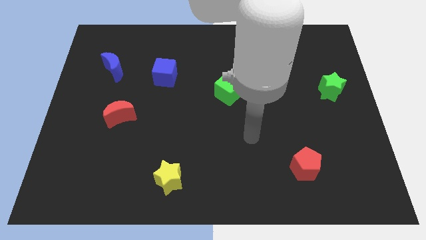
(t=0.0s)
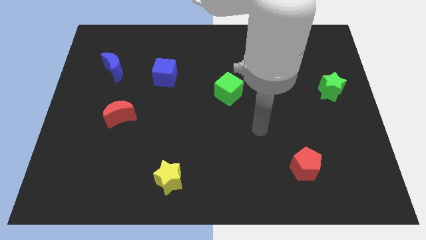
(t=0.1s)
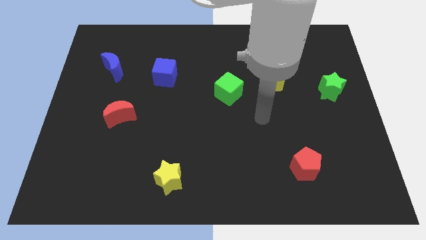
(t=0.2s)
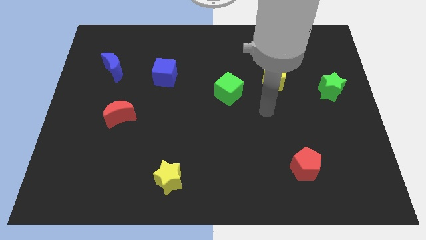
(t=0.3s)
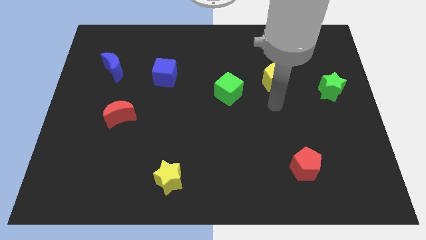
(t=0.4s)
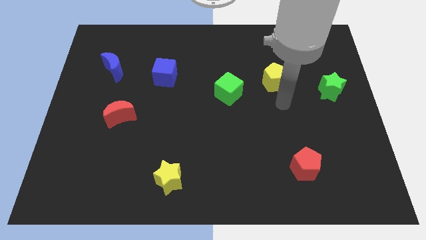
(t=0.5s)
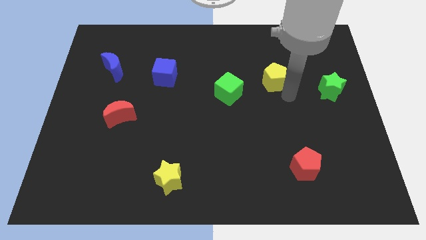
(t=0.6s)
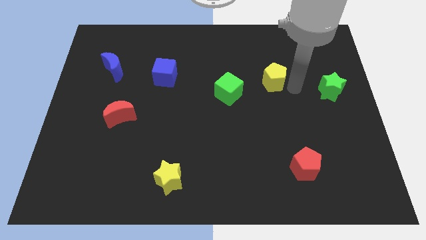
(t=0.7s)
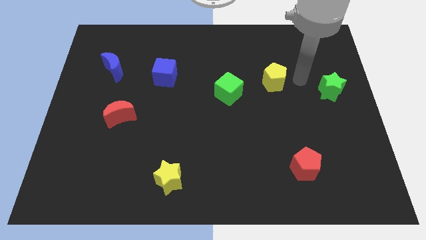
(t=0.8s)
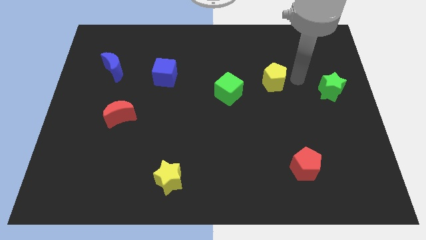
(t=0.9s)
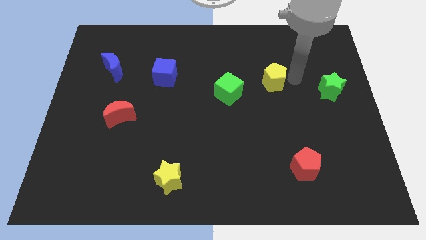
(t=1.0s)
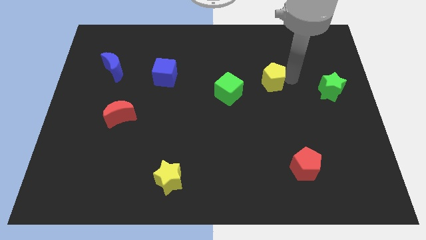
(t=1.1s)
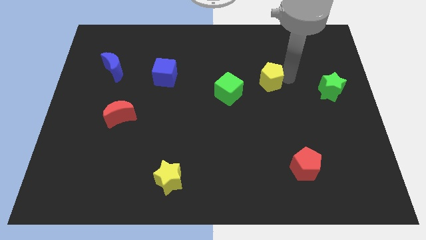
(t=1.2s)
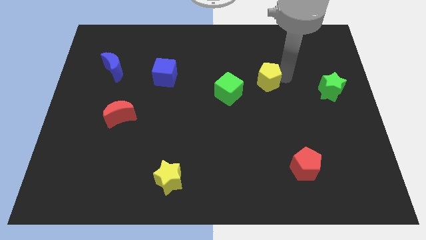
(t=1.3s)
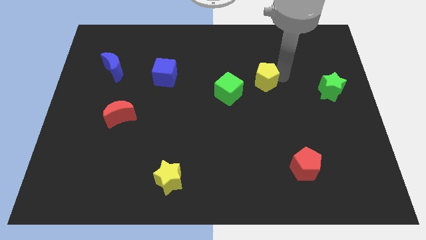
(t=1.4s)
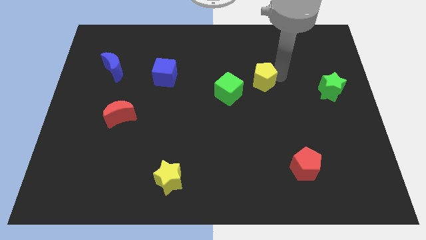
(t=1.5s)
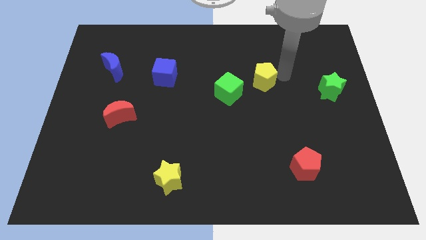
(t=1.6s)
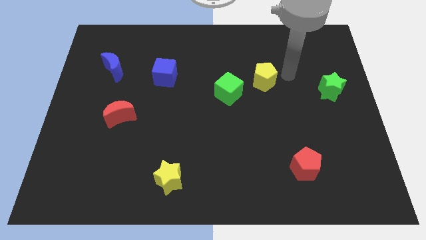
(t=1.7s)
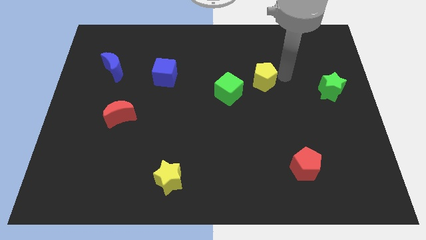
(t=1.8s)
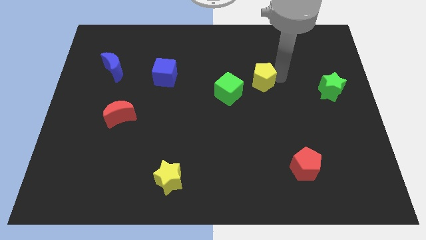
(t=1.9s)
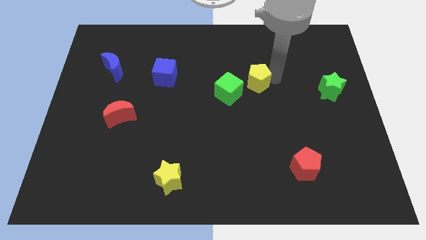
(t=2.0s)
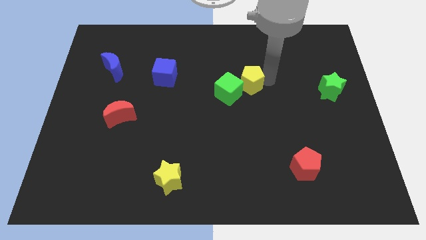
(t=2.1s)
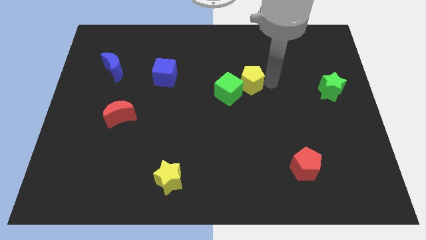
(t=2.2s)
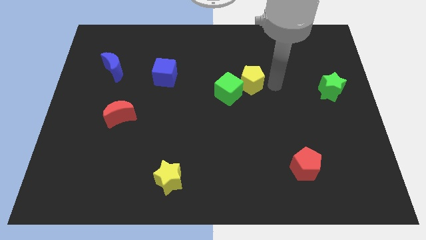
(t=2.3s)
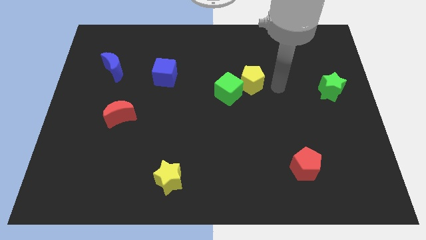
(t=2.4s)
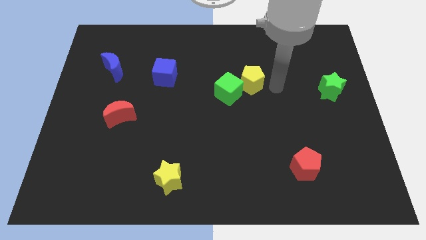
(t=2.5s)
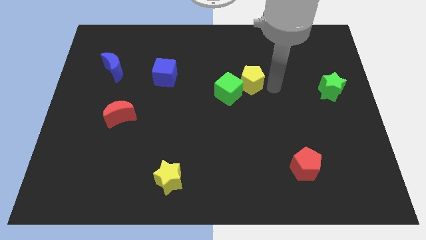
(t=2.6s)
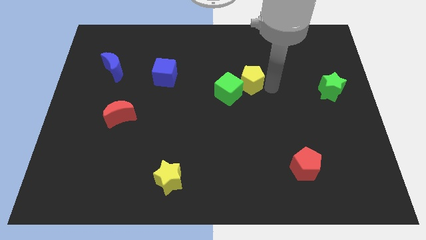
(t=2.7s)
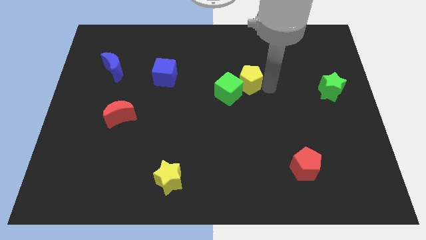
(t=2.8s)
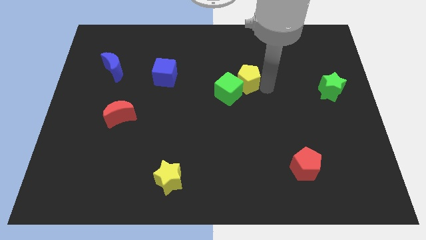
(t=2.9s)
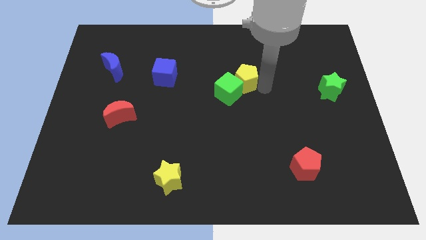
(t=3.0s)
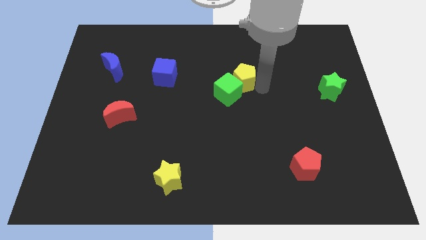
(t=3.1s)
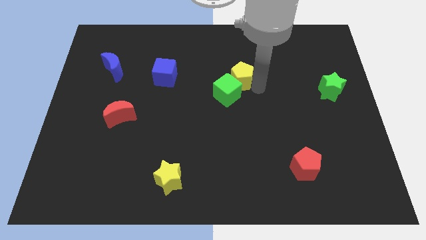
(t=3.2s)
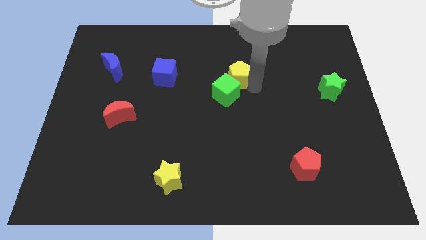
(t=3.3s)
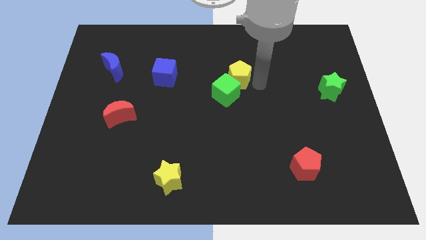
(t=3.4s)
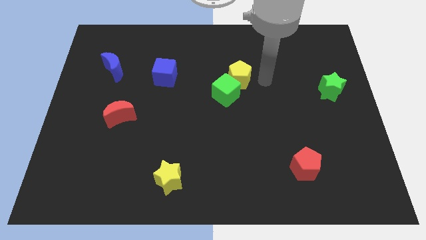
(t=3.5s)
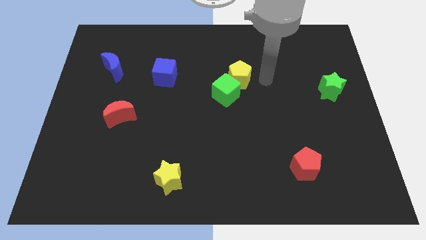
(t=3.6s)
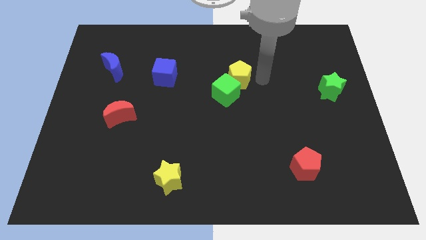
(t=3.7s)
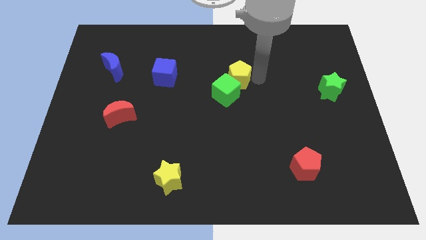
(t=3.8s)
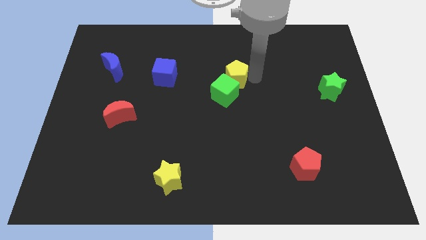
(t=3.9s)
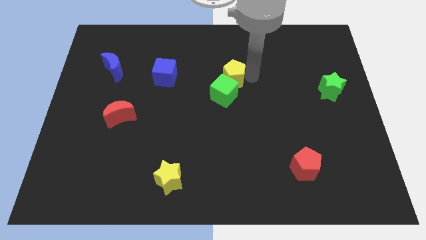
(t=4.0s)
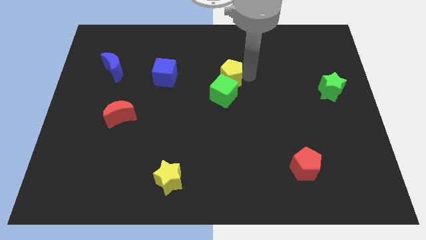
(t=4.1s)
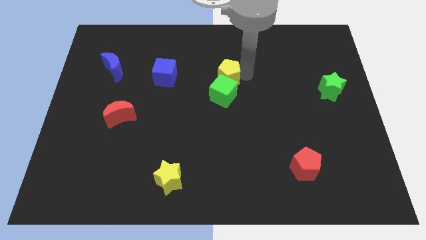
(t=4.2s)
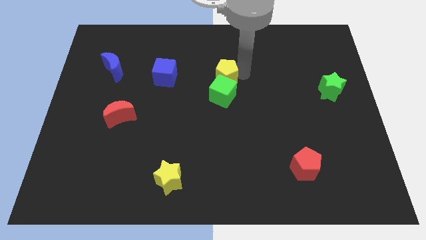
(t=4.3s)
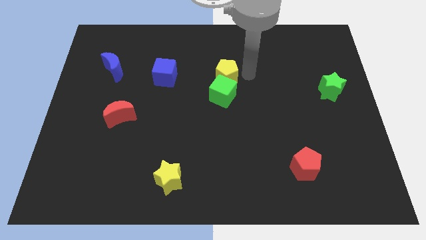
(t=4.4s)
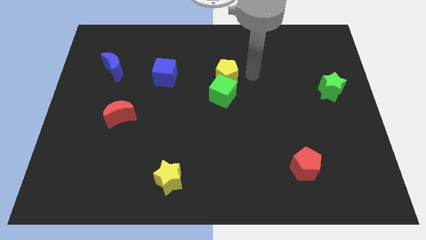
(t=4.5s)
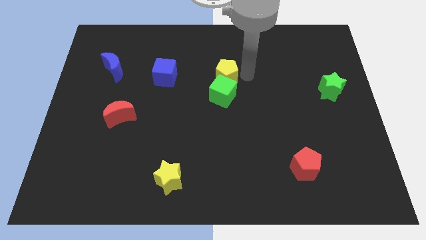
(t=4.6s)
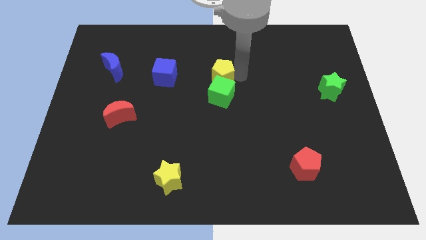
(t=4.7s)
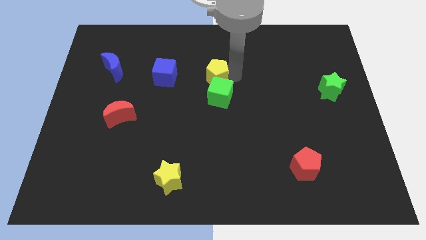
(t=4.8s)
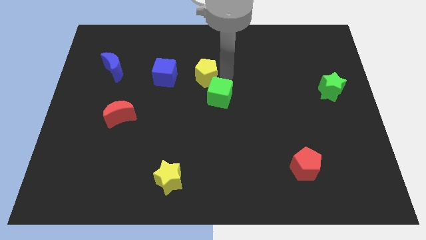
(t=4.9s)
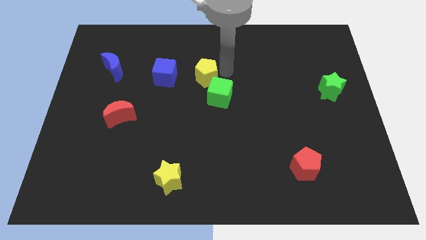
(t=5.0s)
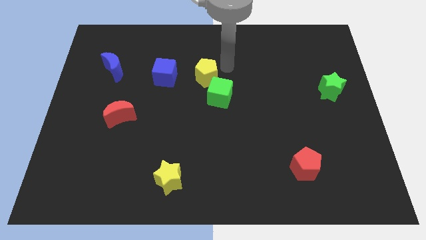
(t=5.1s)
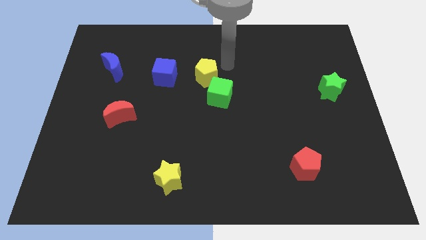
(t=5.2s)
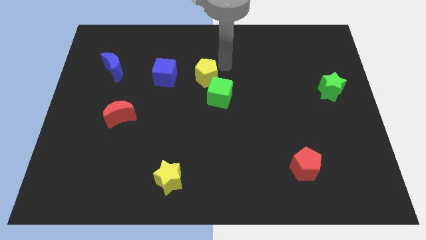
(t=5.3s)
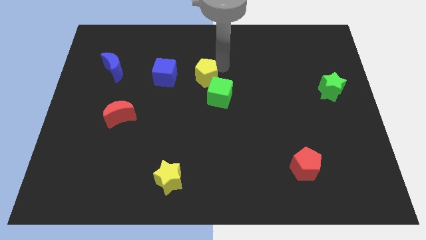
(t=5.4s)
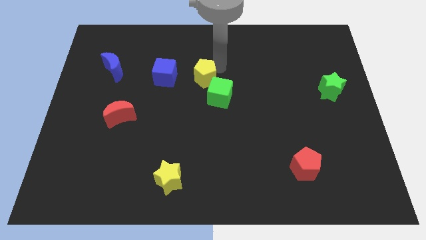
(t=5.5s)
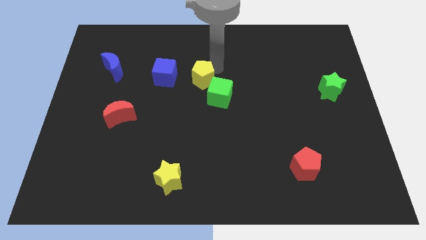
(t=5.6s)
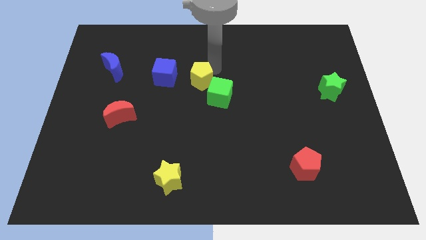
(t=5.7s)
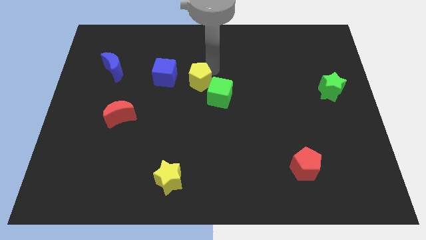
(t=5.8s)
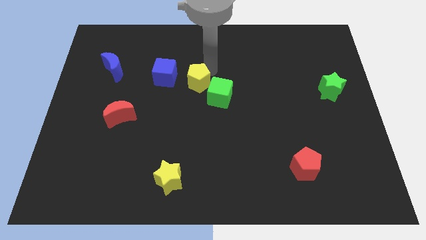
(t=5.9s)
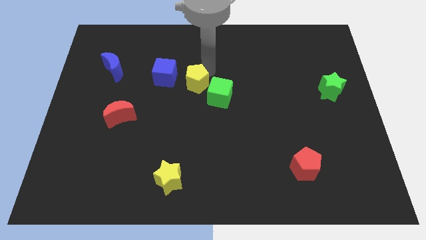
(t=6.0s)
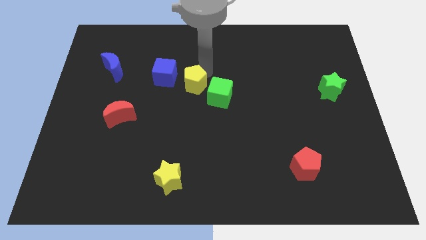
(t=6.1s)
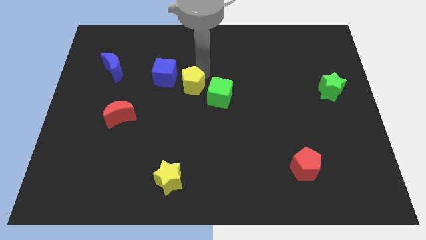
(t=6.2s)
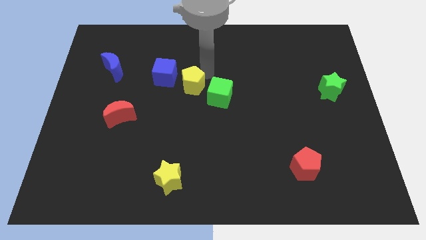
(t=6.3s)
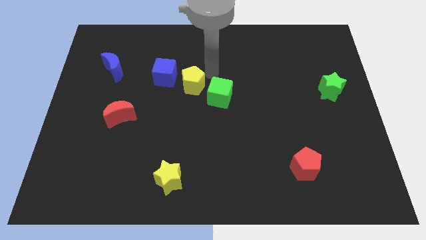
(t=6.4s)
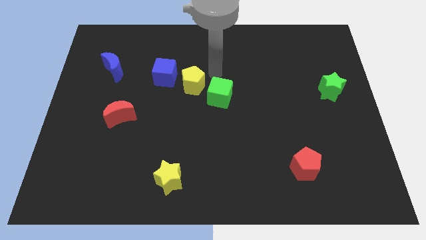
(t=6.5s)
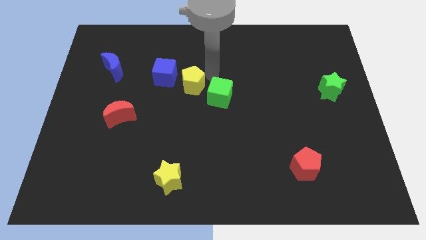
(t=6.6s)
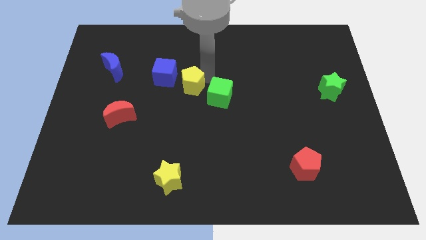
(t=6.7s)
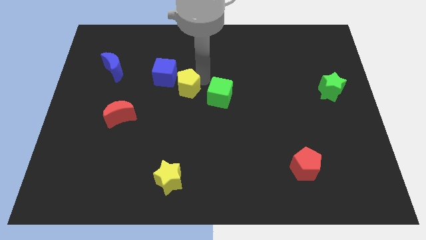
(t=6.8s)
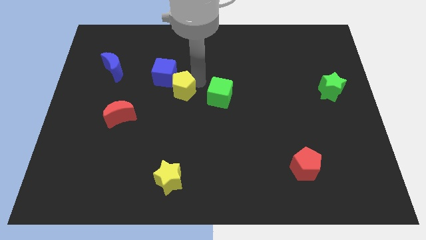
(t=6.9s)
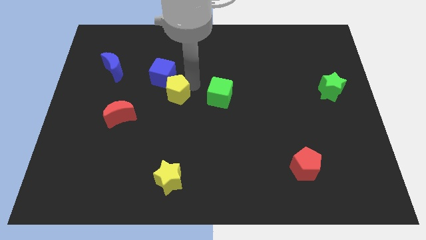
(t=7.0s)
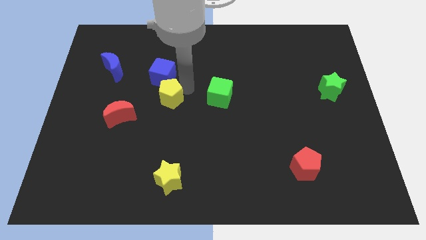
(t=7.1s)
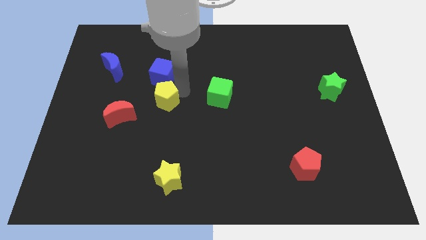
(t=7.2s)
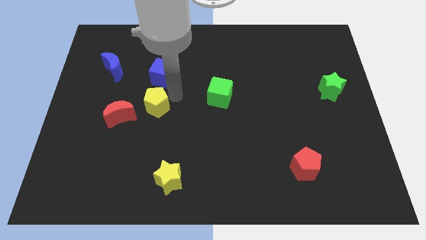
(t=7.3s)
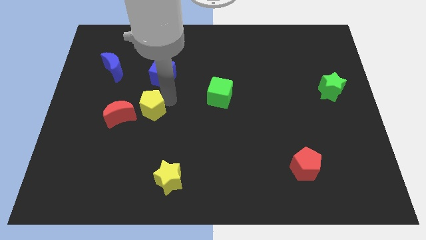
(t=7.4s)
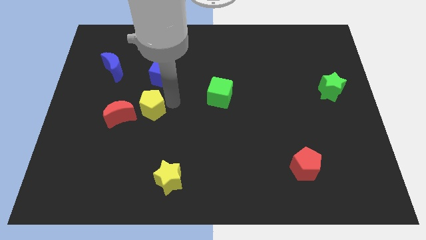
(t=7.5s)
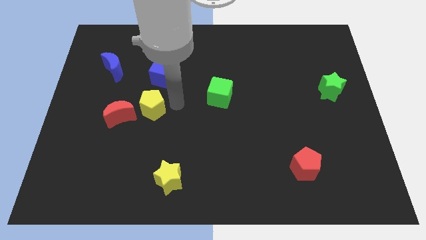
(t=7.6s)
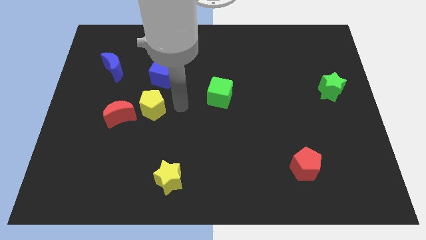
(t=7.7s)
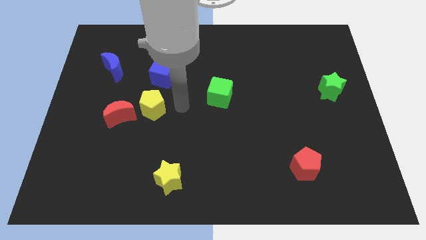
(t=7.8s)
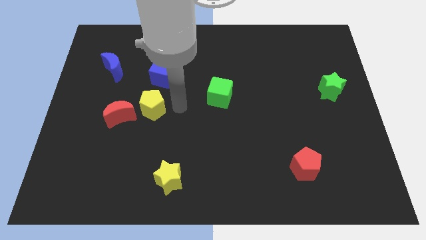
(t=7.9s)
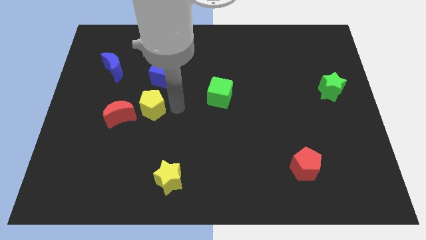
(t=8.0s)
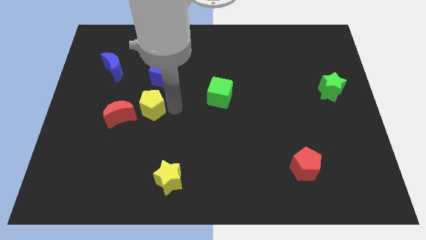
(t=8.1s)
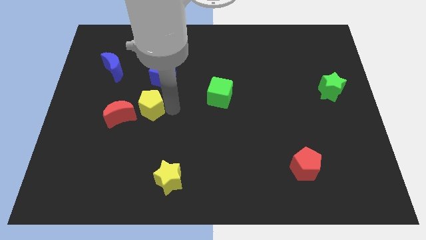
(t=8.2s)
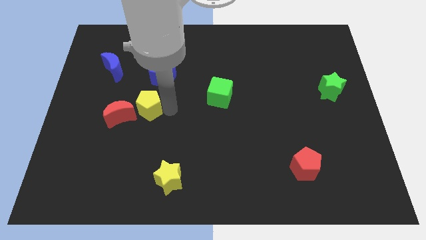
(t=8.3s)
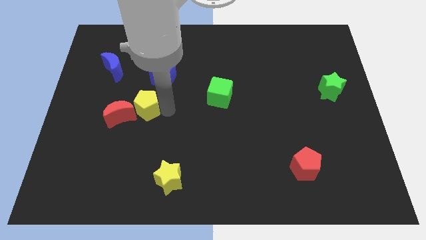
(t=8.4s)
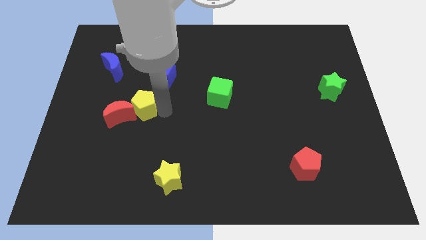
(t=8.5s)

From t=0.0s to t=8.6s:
put the yellow pentagon next to the red moon
